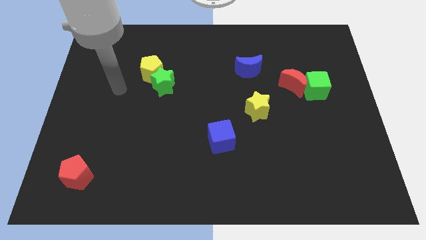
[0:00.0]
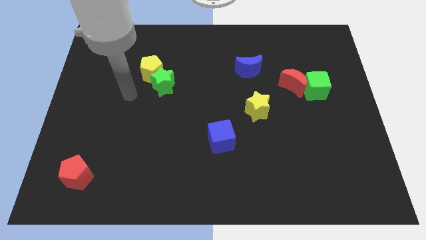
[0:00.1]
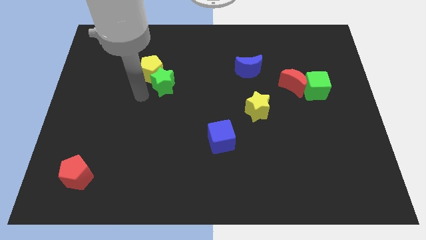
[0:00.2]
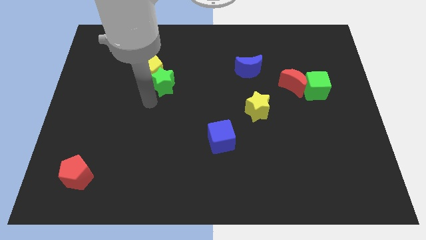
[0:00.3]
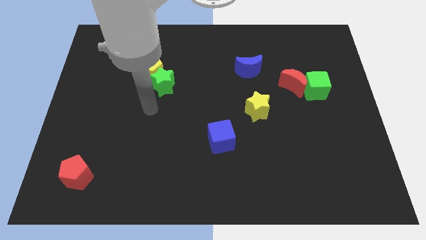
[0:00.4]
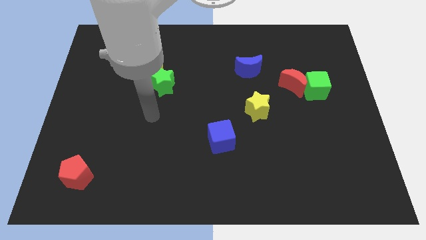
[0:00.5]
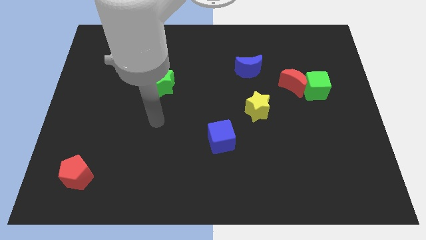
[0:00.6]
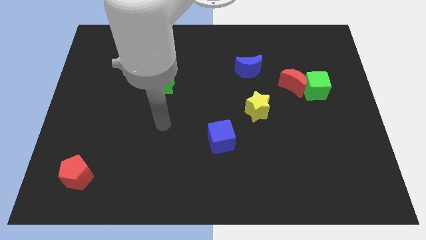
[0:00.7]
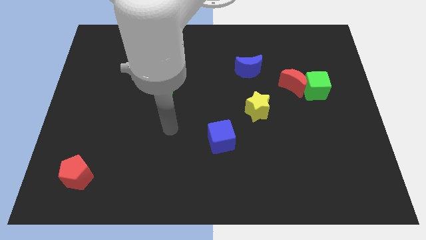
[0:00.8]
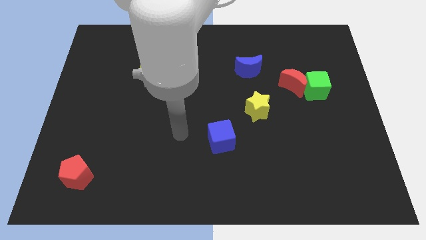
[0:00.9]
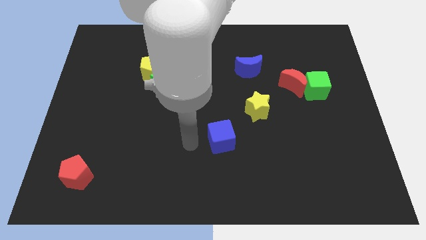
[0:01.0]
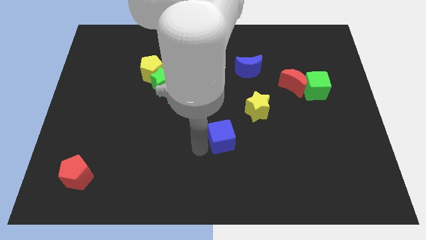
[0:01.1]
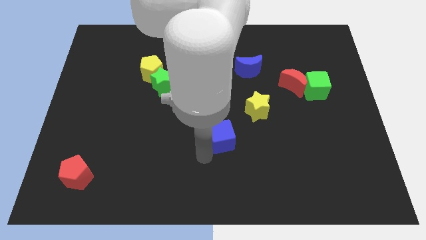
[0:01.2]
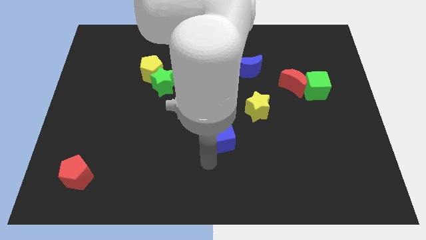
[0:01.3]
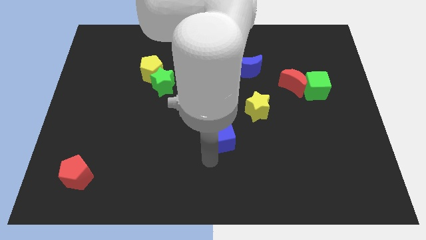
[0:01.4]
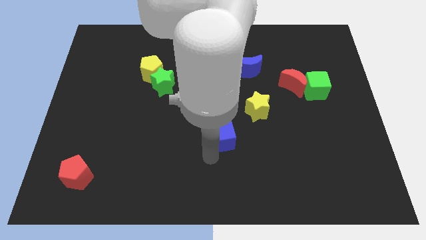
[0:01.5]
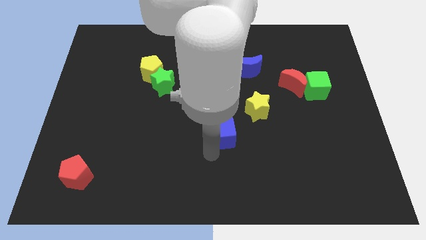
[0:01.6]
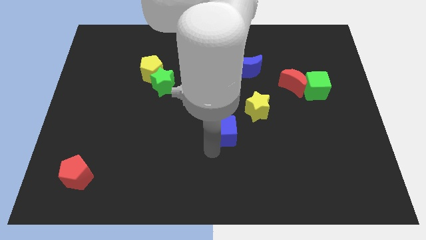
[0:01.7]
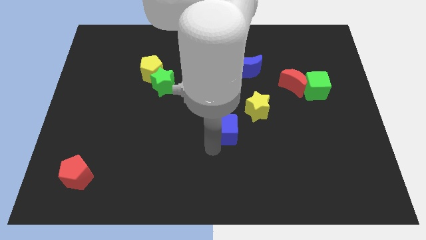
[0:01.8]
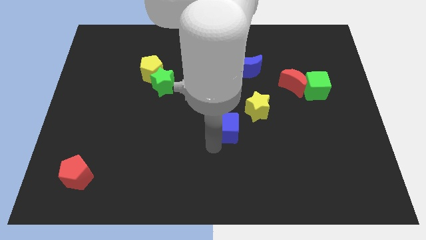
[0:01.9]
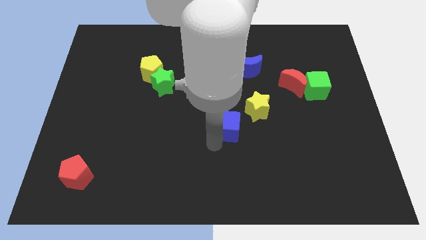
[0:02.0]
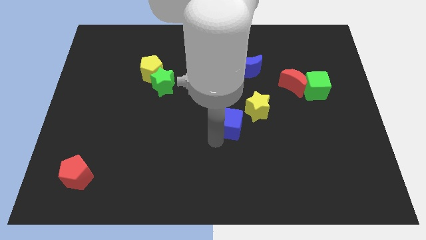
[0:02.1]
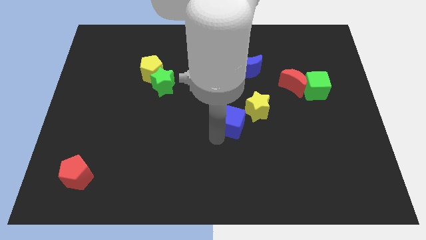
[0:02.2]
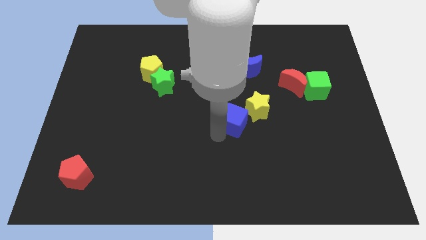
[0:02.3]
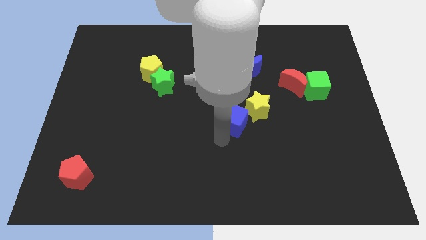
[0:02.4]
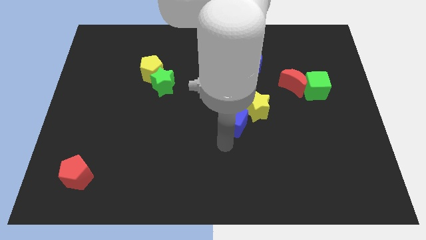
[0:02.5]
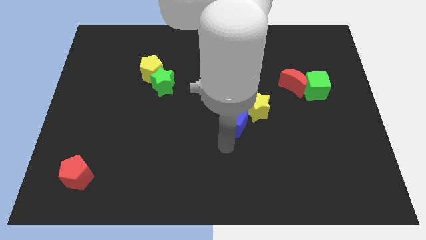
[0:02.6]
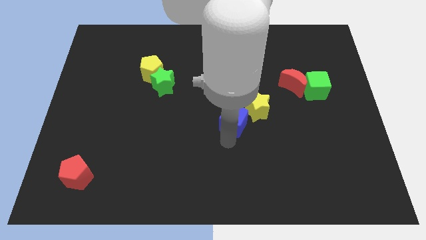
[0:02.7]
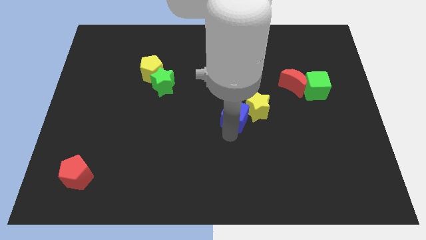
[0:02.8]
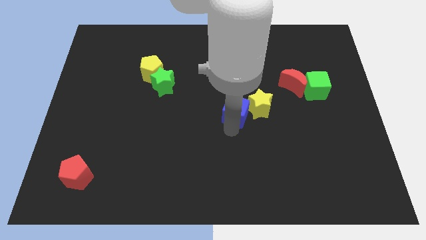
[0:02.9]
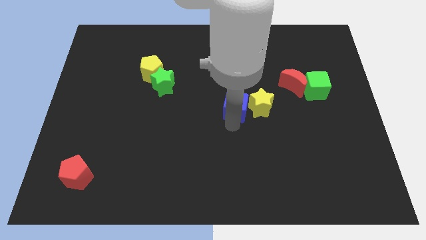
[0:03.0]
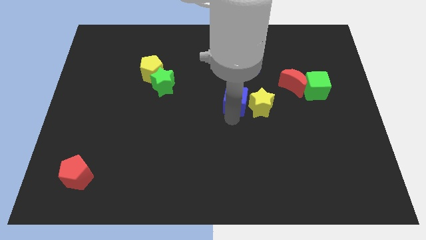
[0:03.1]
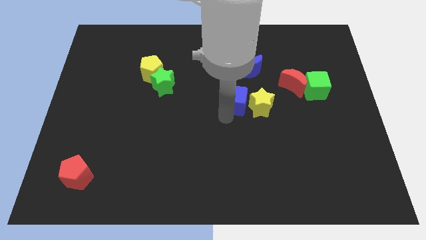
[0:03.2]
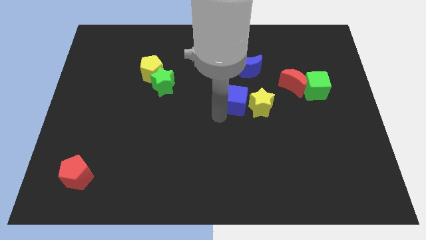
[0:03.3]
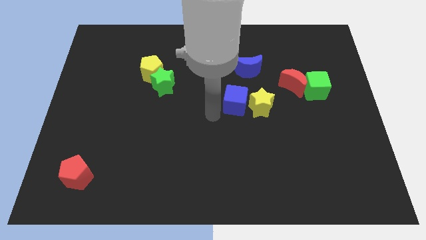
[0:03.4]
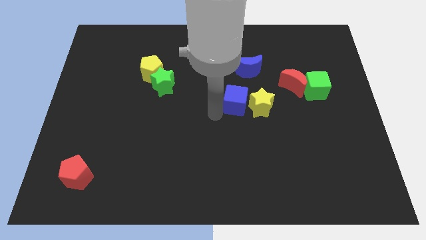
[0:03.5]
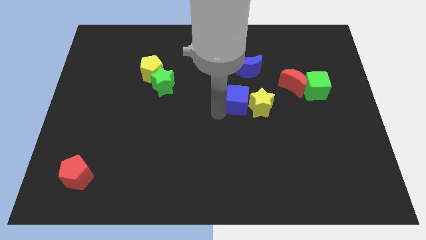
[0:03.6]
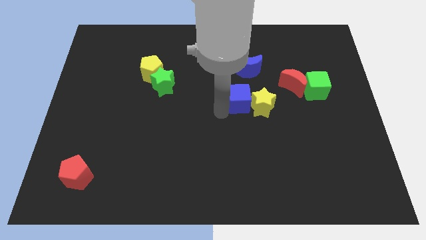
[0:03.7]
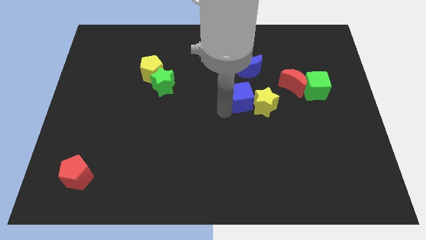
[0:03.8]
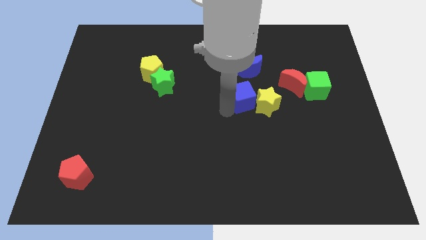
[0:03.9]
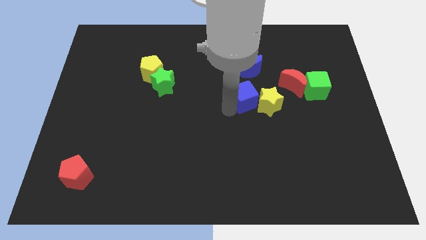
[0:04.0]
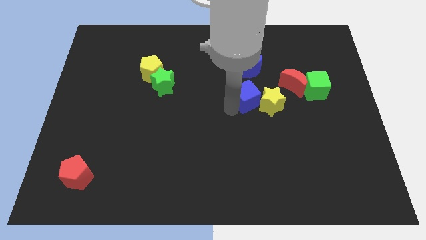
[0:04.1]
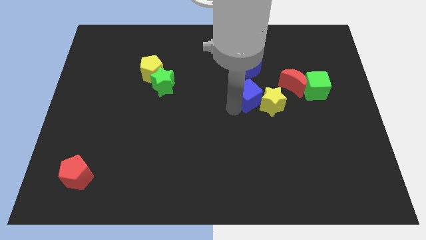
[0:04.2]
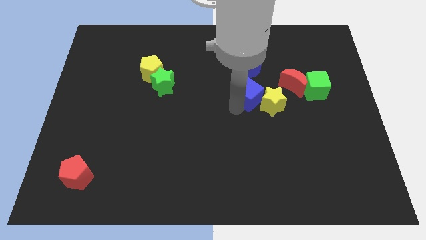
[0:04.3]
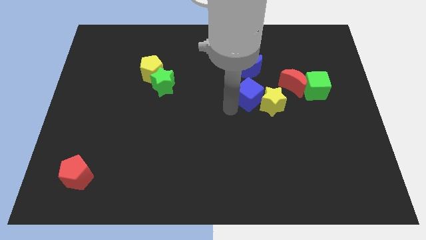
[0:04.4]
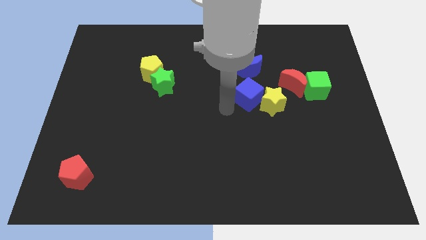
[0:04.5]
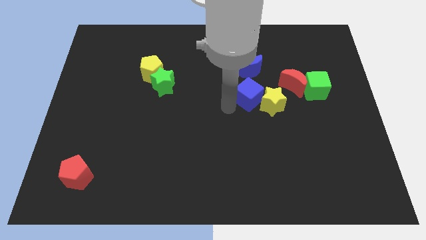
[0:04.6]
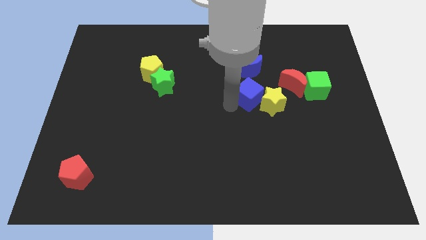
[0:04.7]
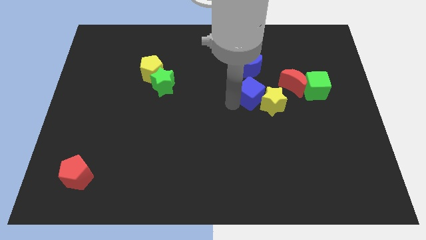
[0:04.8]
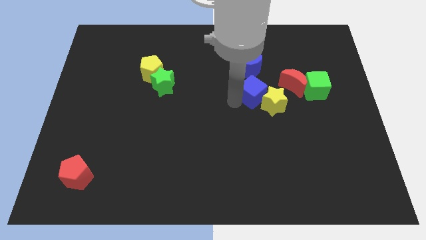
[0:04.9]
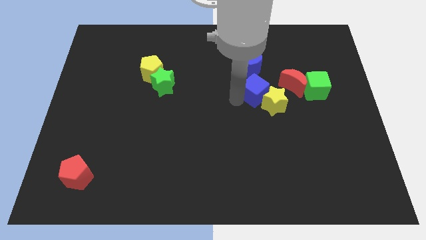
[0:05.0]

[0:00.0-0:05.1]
push the blue cube to the bottom right of the blue moon
